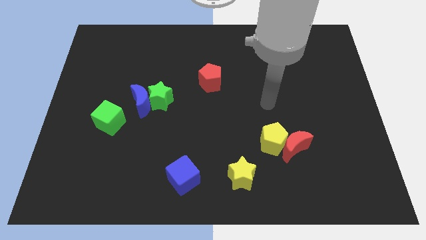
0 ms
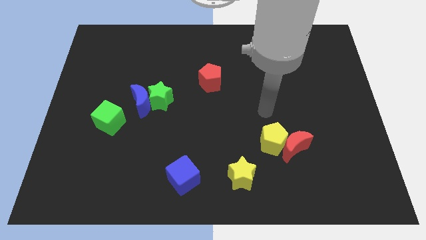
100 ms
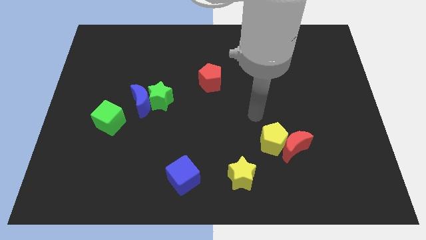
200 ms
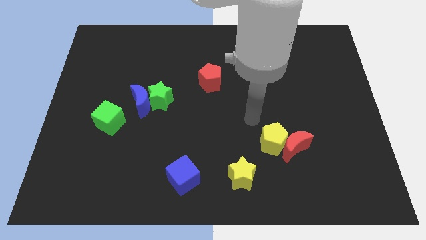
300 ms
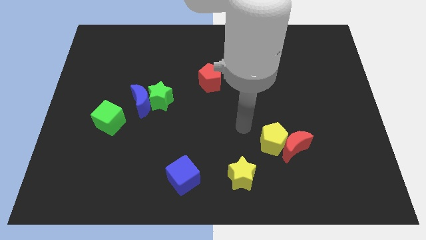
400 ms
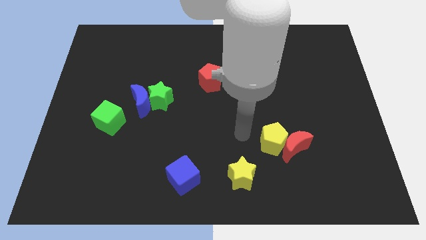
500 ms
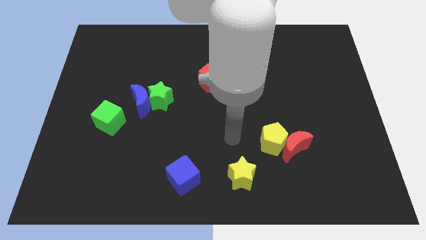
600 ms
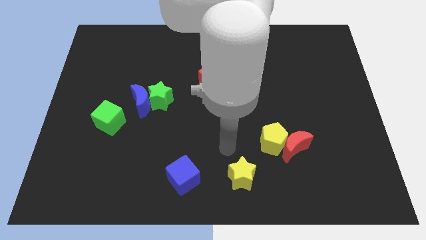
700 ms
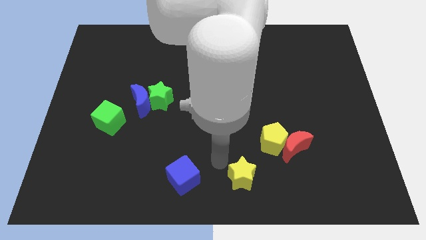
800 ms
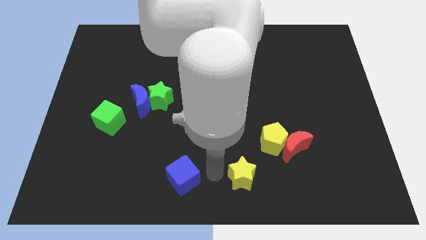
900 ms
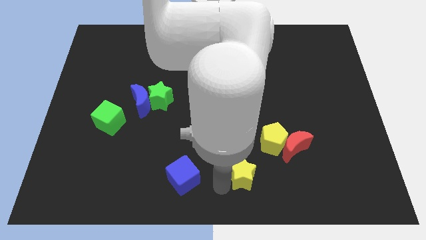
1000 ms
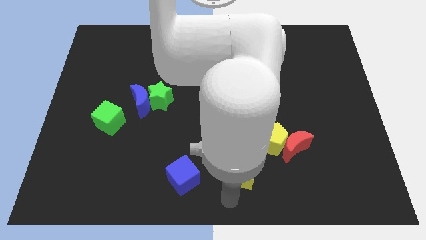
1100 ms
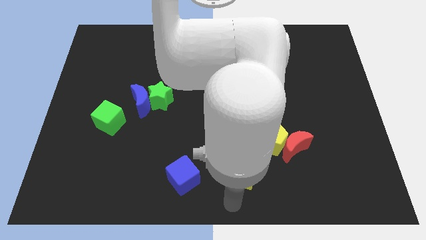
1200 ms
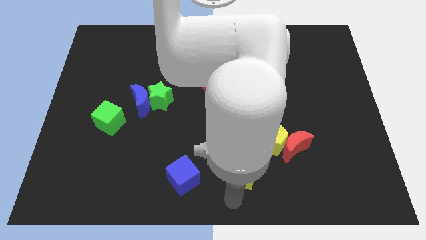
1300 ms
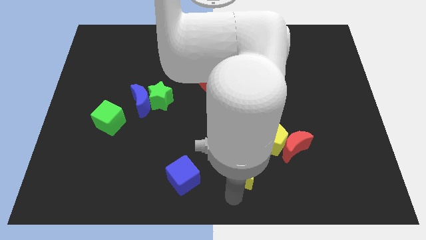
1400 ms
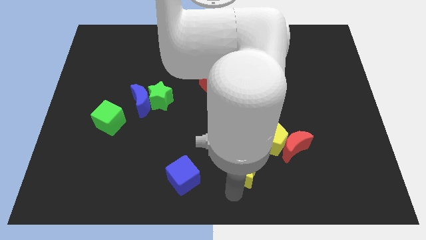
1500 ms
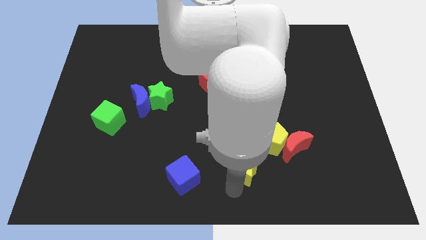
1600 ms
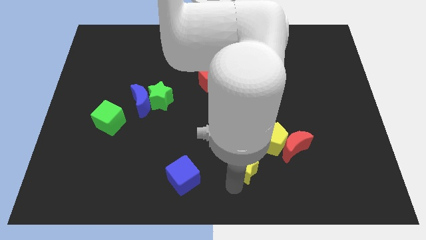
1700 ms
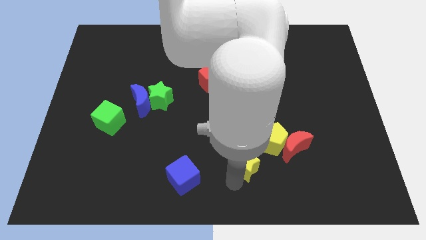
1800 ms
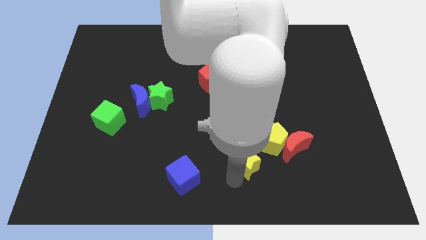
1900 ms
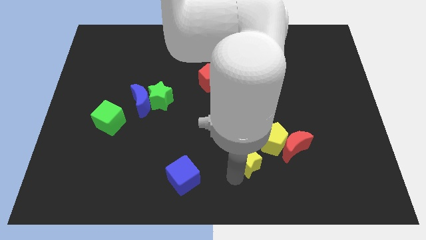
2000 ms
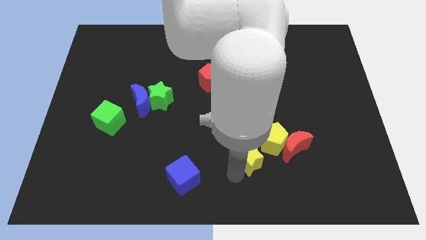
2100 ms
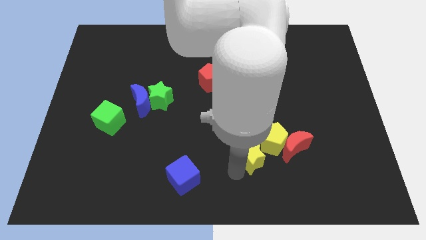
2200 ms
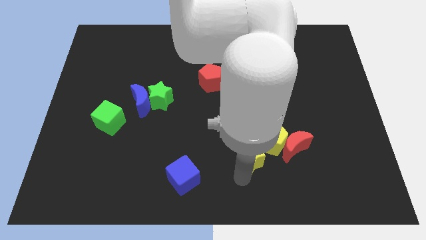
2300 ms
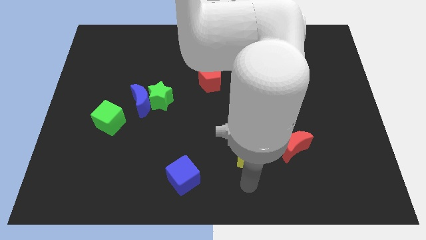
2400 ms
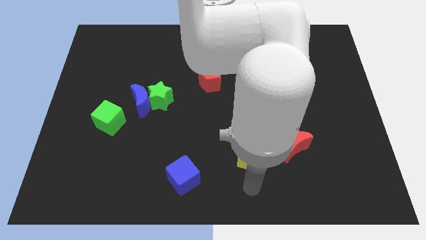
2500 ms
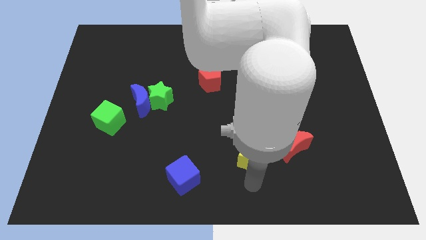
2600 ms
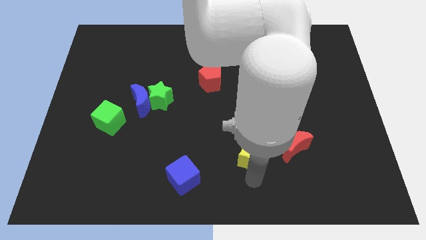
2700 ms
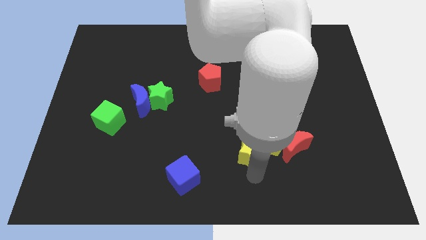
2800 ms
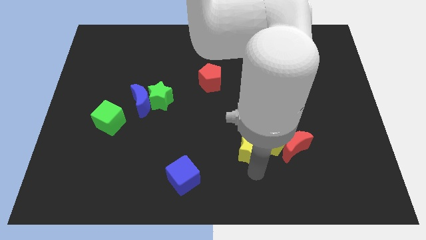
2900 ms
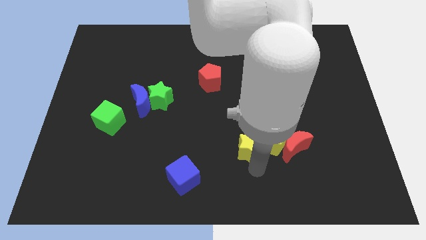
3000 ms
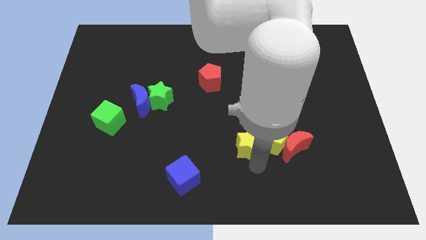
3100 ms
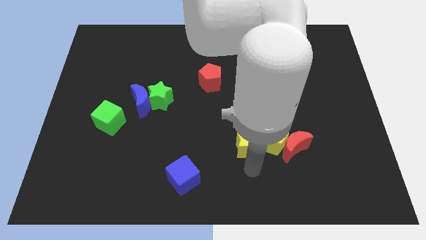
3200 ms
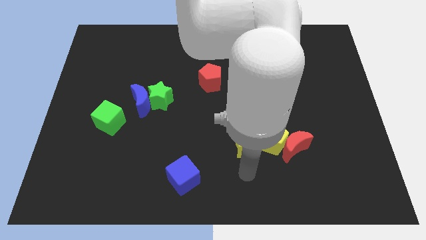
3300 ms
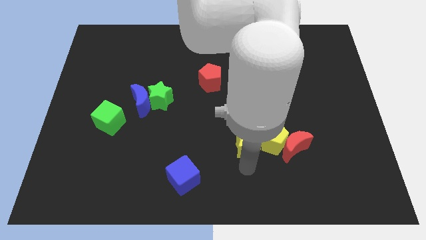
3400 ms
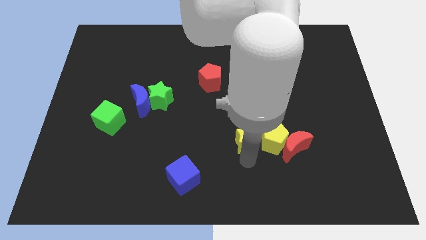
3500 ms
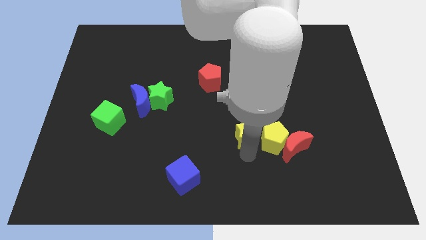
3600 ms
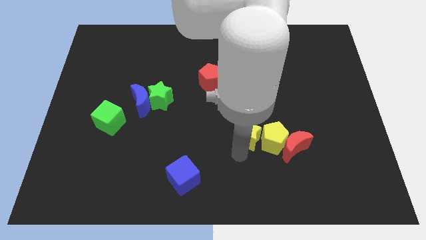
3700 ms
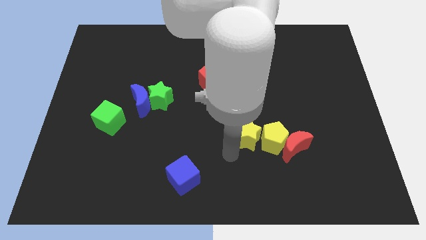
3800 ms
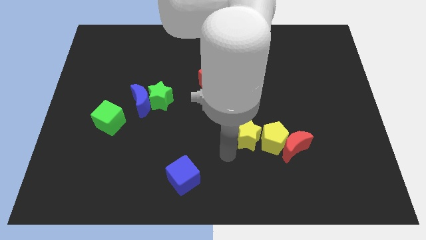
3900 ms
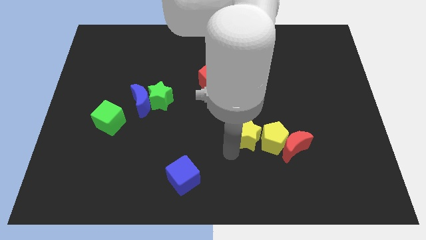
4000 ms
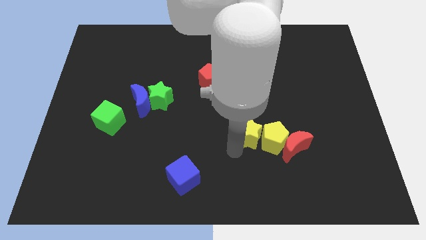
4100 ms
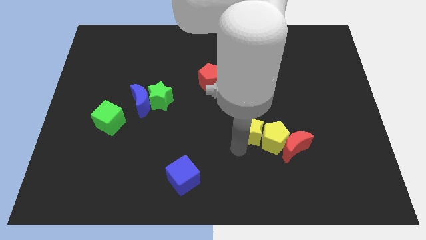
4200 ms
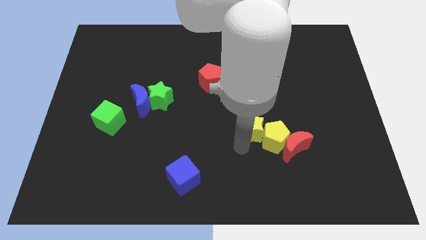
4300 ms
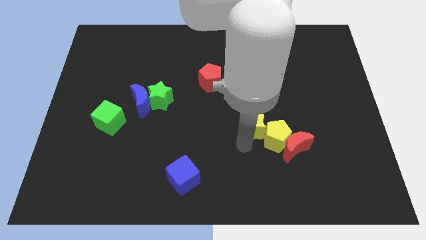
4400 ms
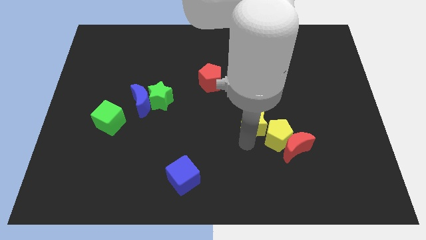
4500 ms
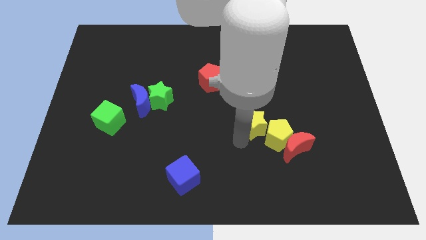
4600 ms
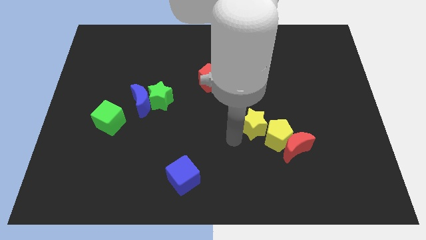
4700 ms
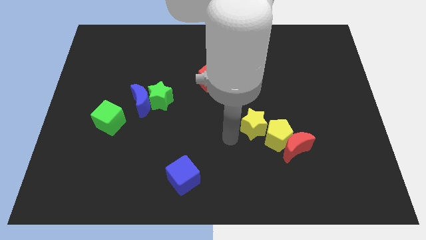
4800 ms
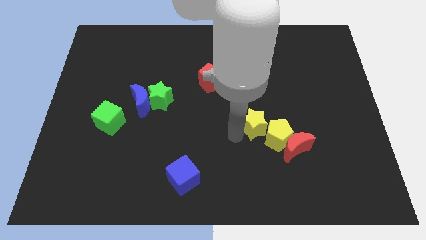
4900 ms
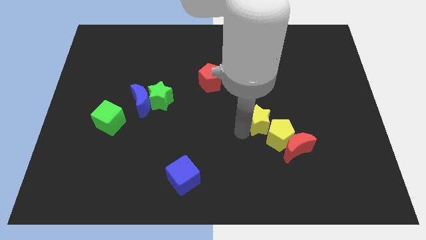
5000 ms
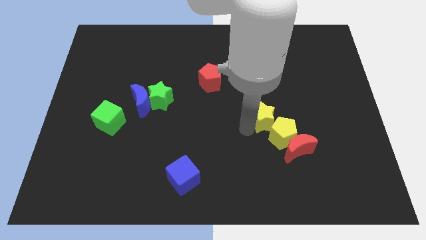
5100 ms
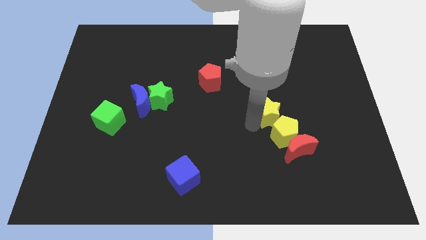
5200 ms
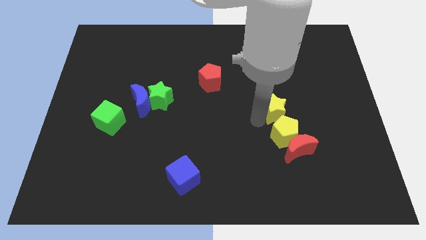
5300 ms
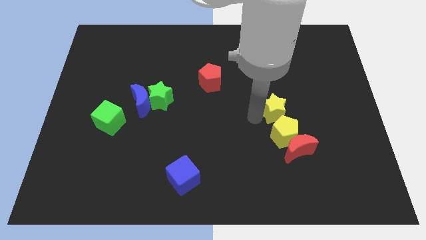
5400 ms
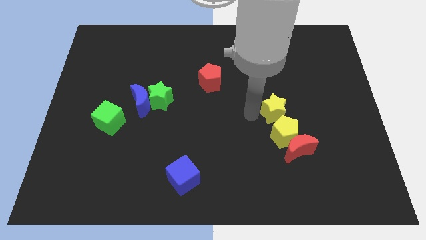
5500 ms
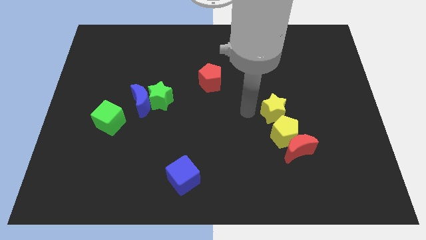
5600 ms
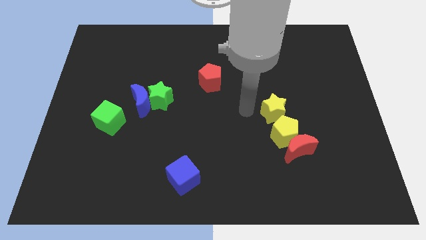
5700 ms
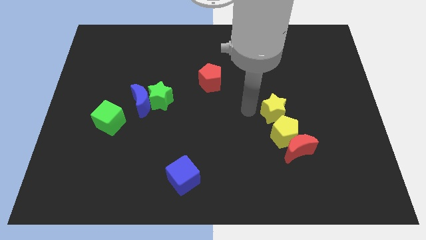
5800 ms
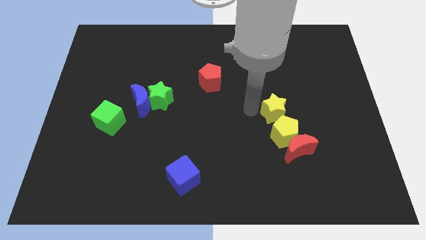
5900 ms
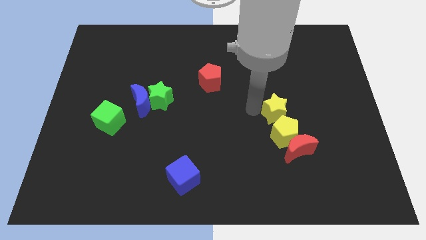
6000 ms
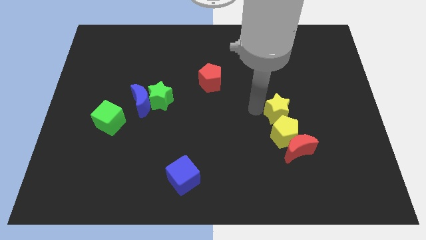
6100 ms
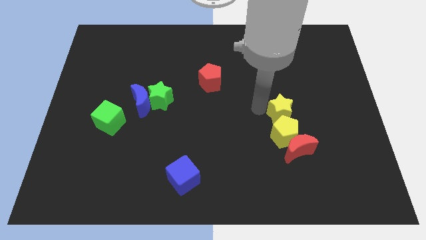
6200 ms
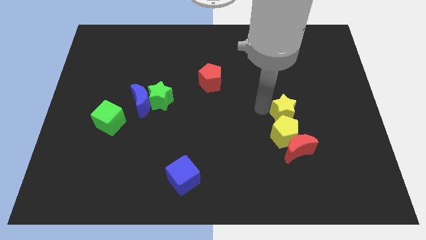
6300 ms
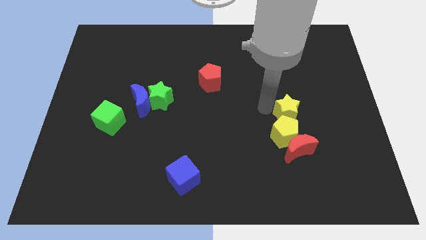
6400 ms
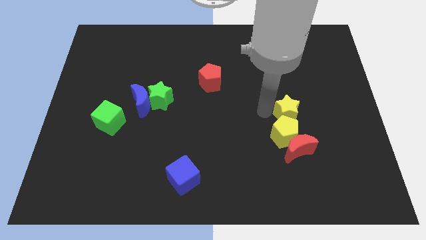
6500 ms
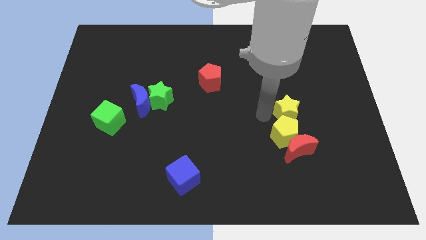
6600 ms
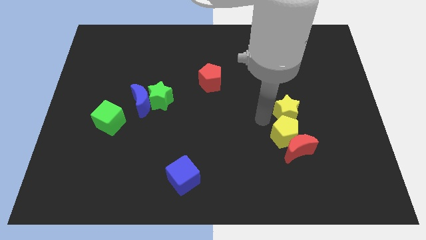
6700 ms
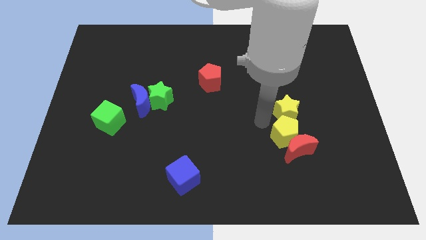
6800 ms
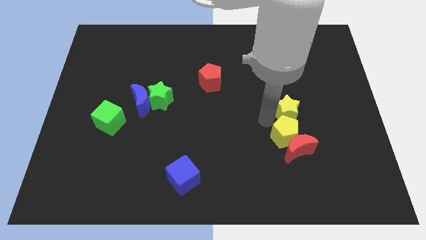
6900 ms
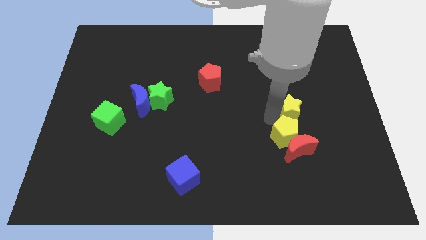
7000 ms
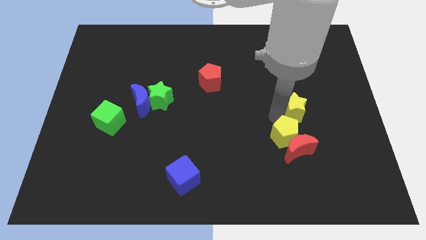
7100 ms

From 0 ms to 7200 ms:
push the yellow star up and then to the right

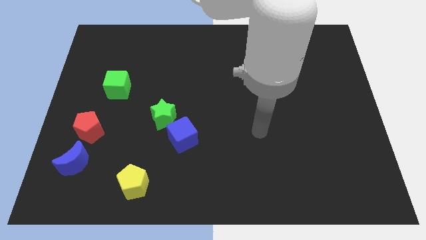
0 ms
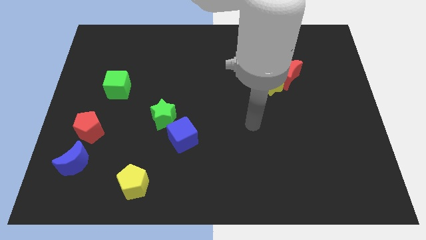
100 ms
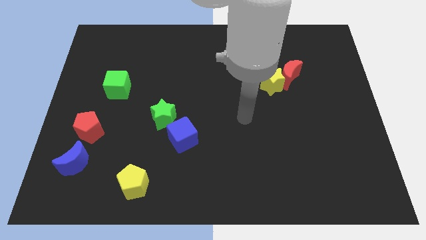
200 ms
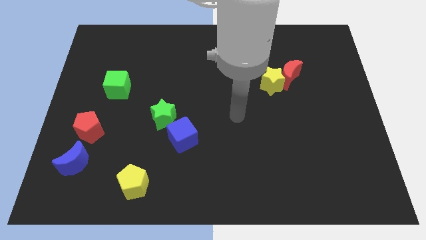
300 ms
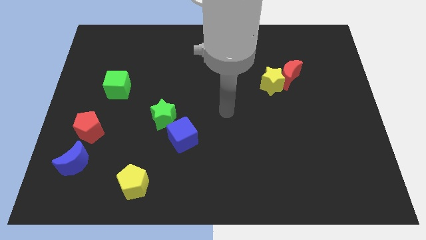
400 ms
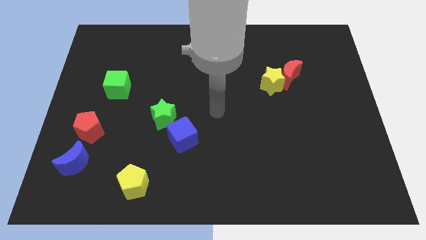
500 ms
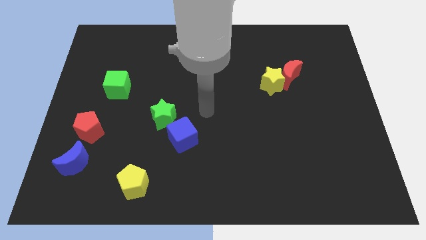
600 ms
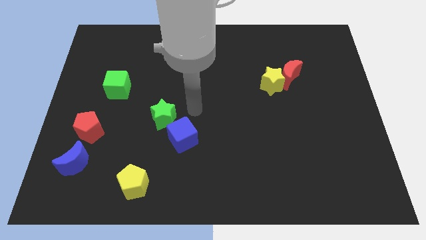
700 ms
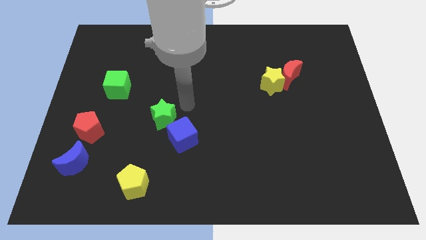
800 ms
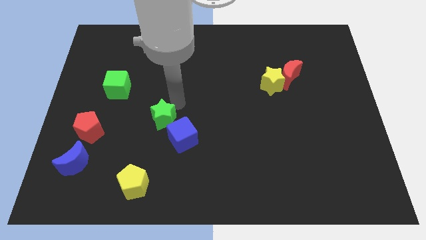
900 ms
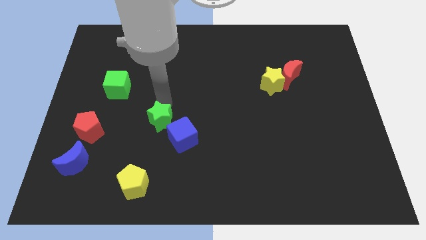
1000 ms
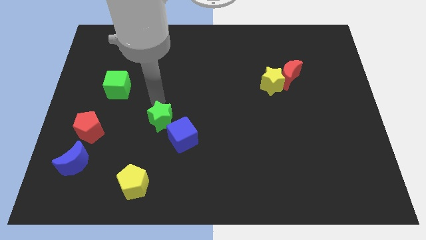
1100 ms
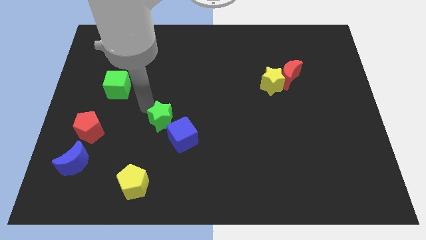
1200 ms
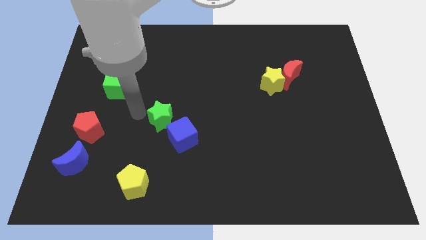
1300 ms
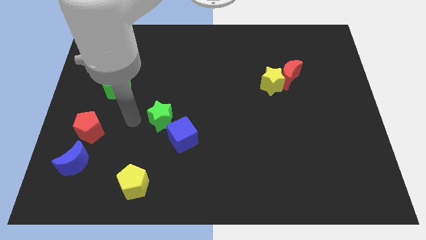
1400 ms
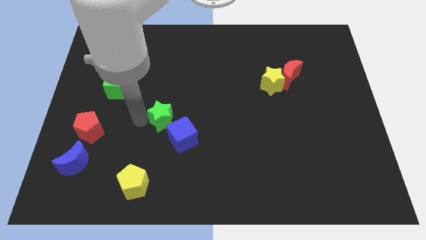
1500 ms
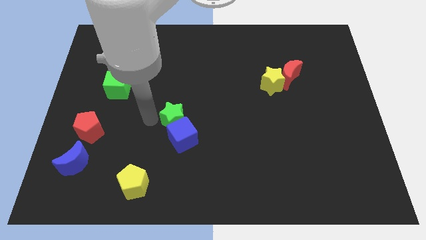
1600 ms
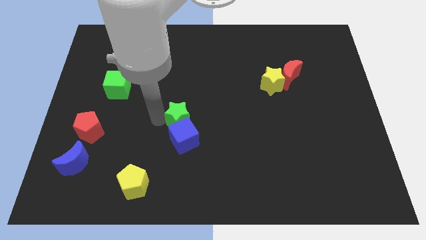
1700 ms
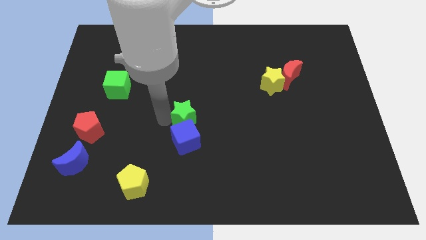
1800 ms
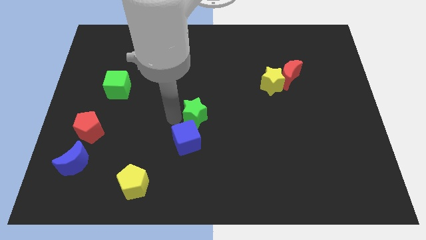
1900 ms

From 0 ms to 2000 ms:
slightly push the green star to the right
